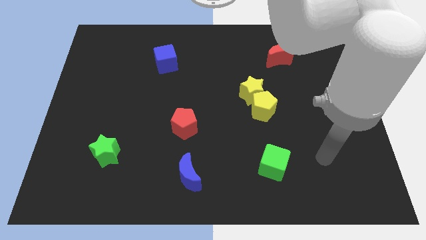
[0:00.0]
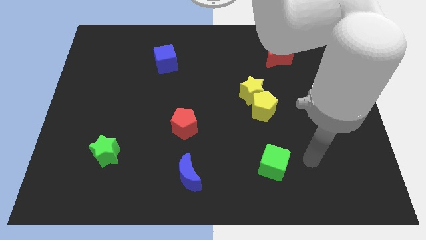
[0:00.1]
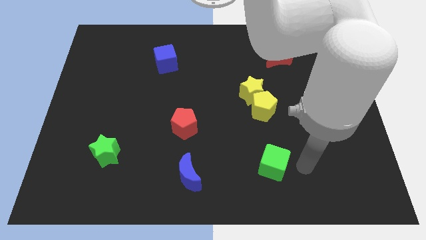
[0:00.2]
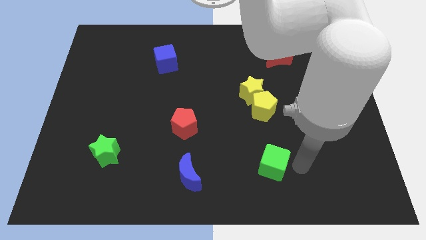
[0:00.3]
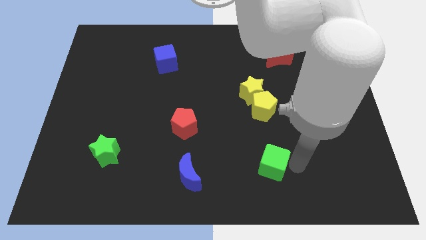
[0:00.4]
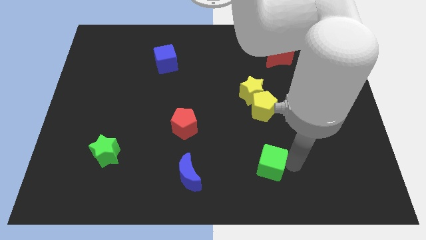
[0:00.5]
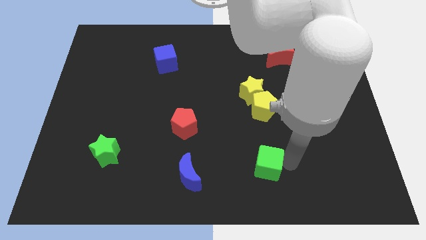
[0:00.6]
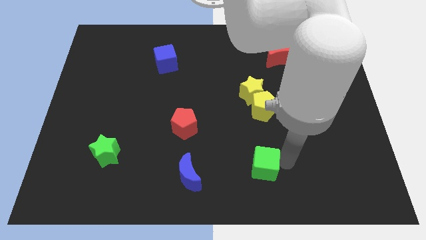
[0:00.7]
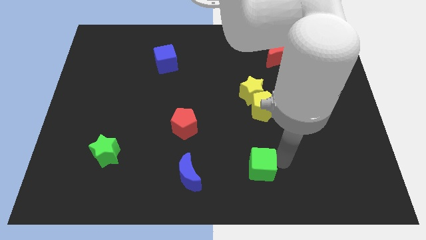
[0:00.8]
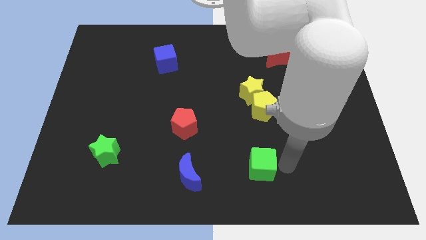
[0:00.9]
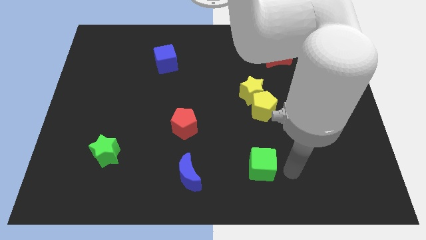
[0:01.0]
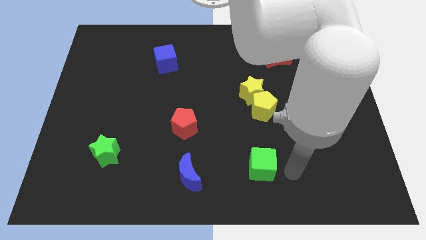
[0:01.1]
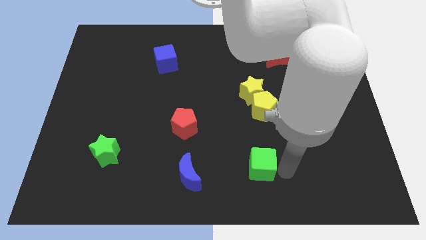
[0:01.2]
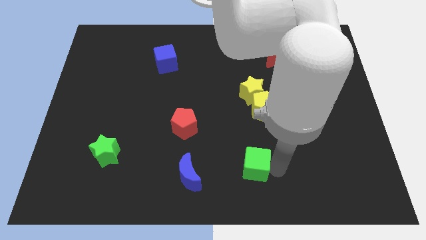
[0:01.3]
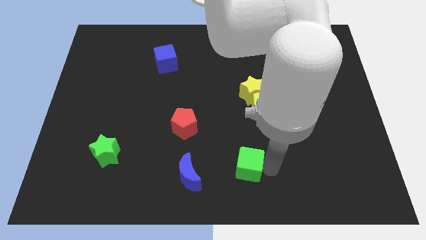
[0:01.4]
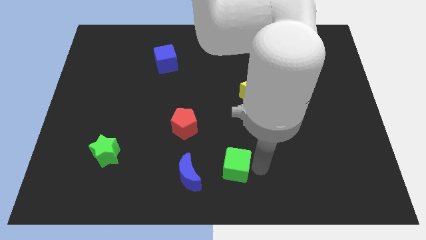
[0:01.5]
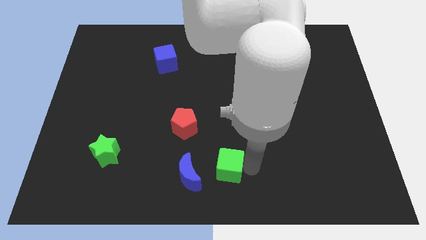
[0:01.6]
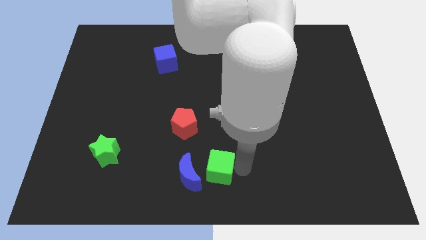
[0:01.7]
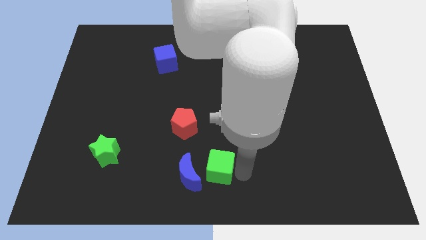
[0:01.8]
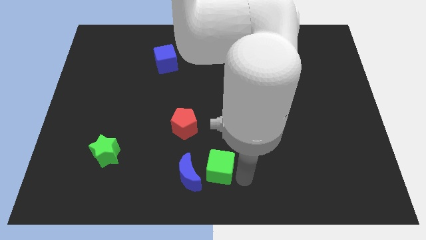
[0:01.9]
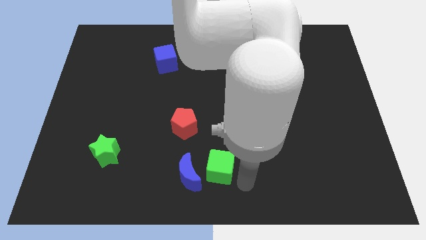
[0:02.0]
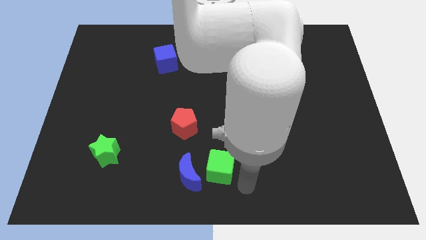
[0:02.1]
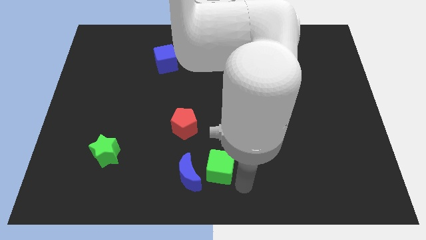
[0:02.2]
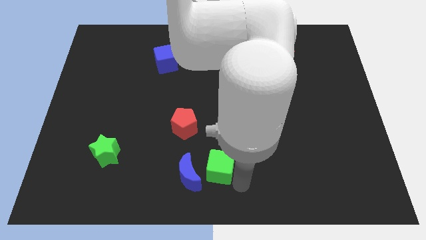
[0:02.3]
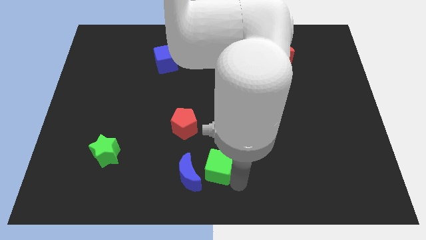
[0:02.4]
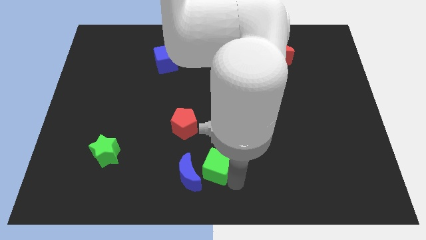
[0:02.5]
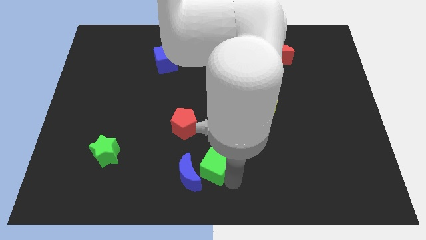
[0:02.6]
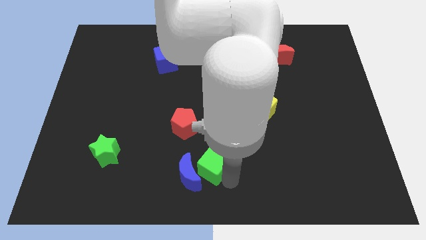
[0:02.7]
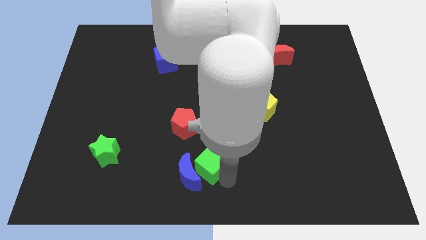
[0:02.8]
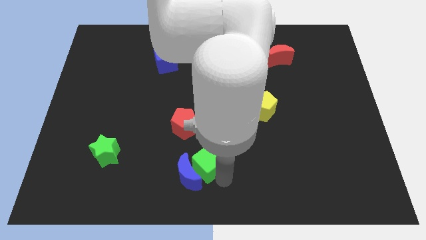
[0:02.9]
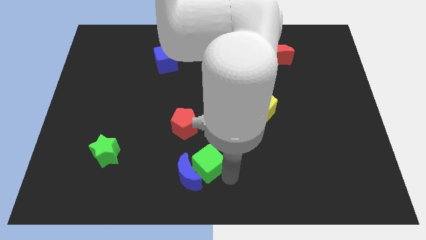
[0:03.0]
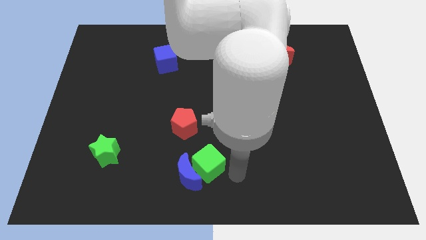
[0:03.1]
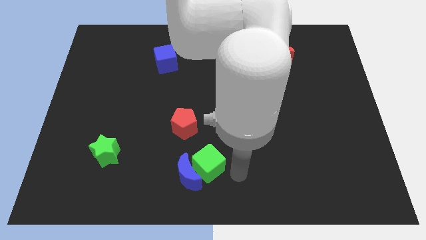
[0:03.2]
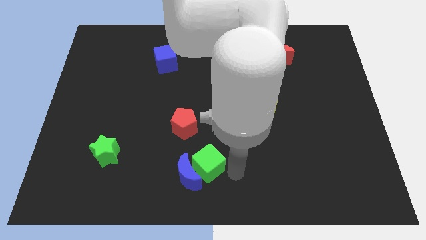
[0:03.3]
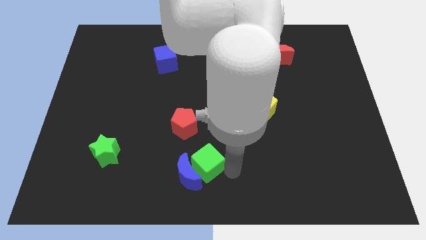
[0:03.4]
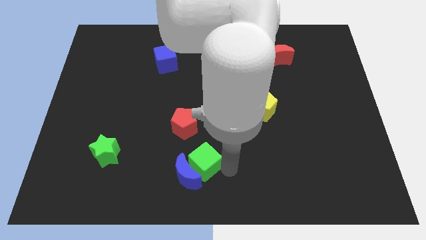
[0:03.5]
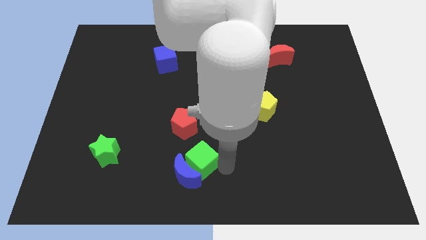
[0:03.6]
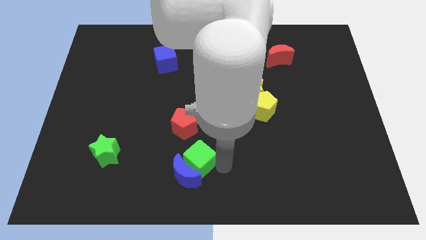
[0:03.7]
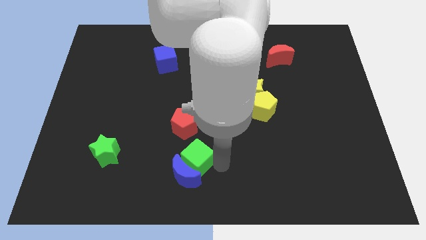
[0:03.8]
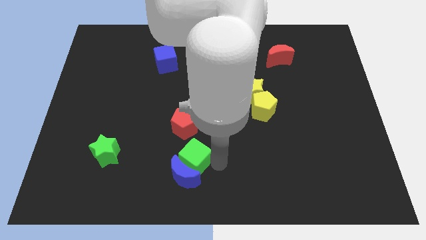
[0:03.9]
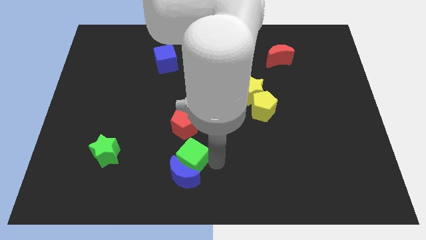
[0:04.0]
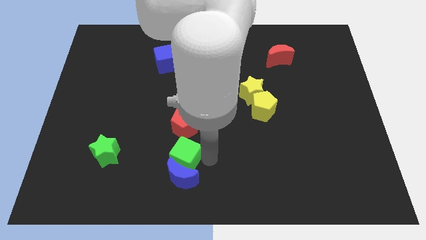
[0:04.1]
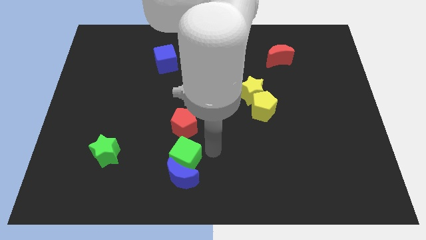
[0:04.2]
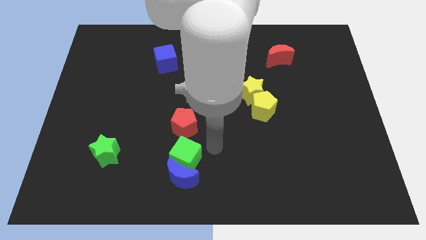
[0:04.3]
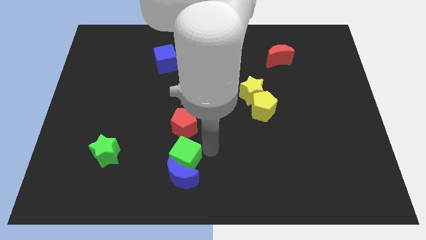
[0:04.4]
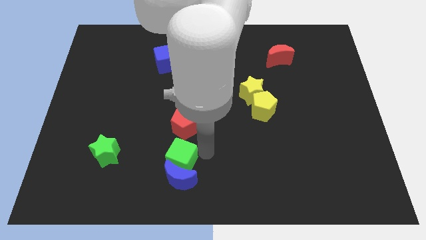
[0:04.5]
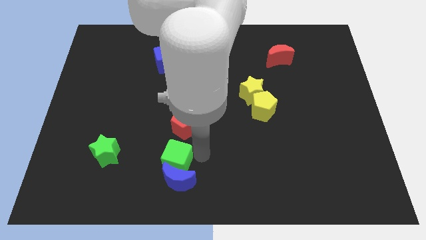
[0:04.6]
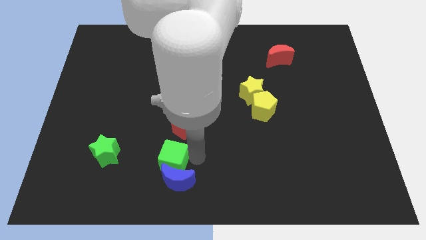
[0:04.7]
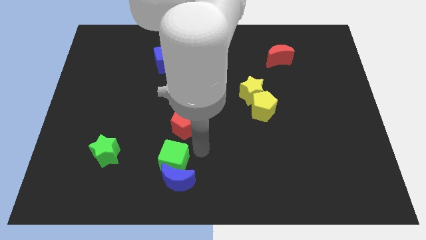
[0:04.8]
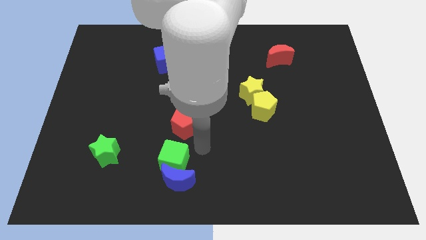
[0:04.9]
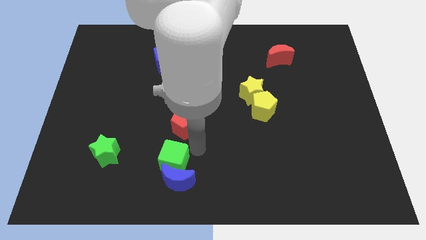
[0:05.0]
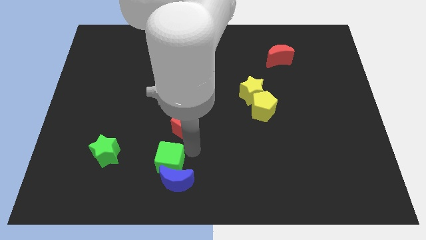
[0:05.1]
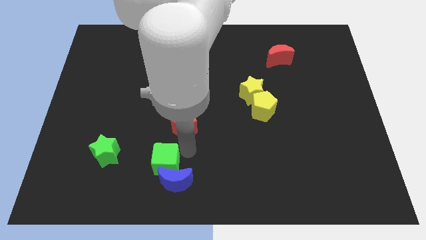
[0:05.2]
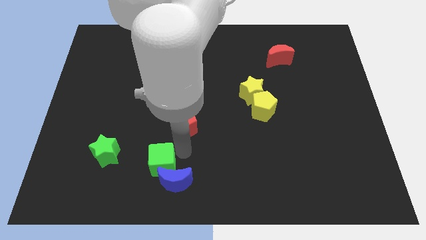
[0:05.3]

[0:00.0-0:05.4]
move the green cube to the left side of the blue moon

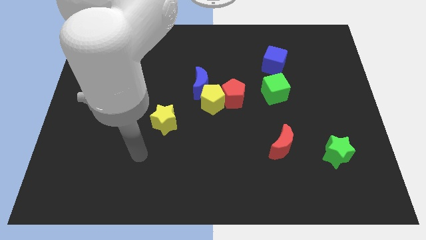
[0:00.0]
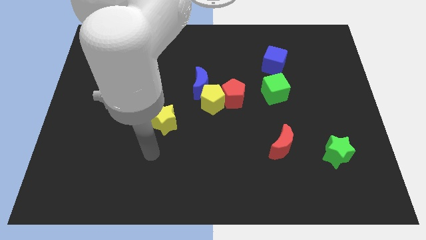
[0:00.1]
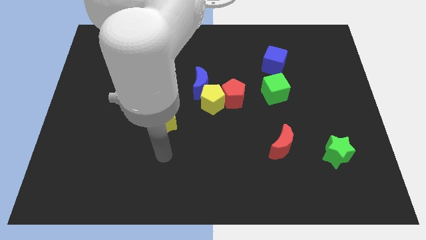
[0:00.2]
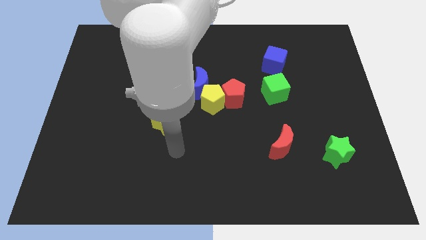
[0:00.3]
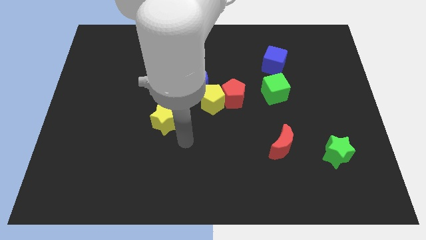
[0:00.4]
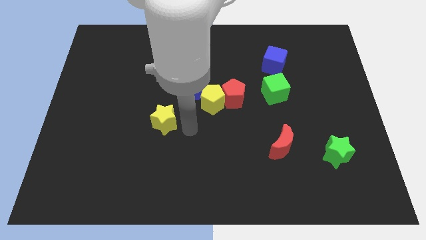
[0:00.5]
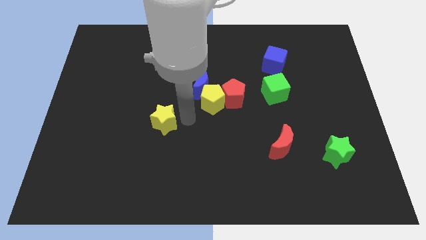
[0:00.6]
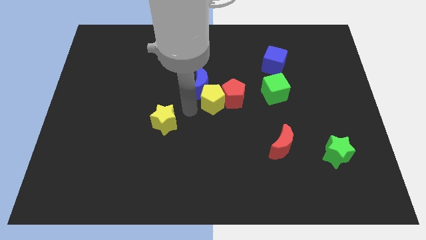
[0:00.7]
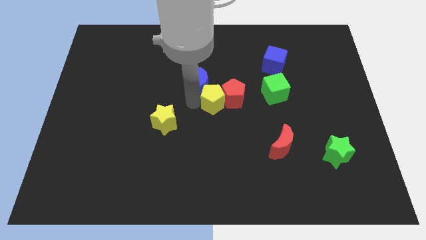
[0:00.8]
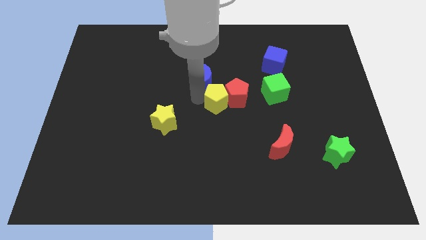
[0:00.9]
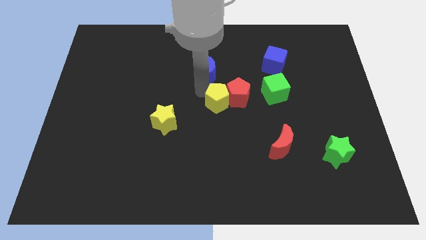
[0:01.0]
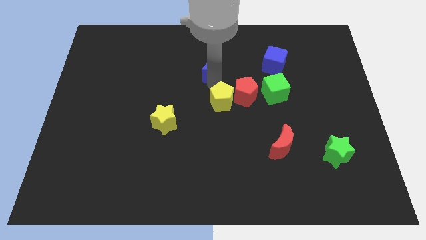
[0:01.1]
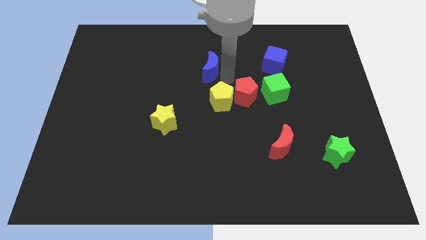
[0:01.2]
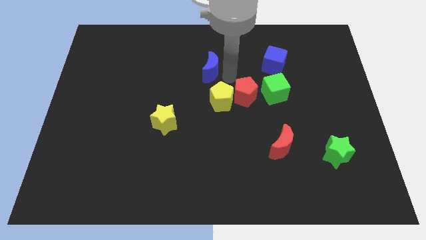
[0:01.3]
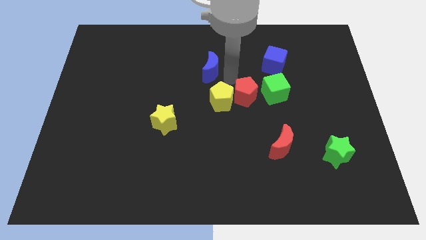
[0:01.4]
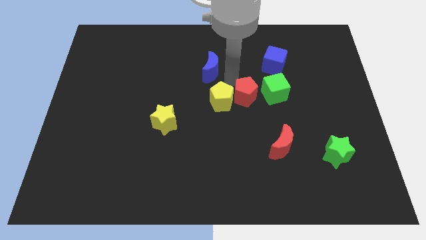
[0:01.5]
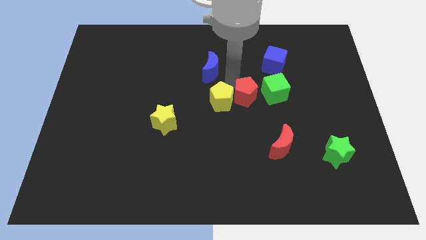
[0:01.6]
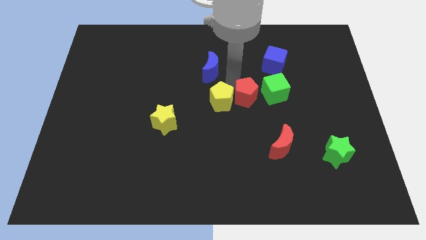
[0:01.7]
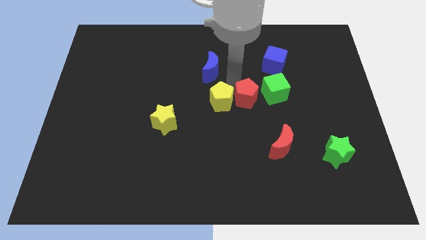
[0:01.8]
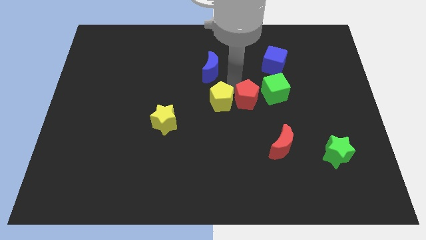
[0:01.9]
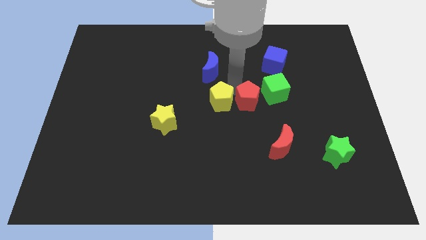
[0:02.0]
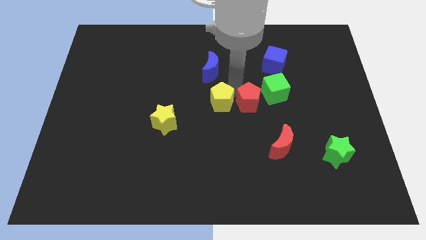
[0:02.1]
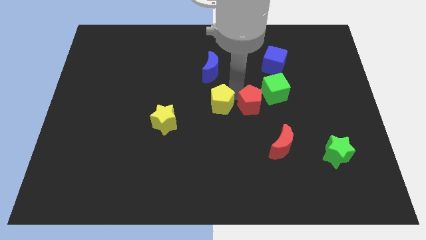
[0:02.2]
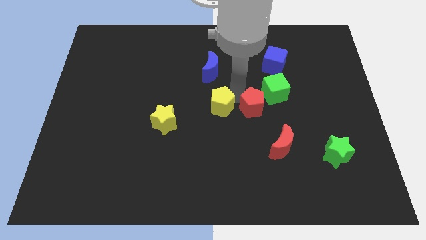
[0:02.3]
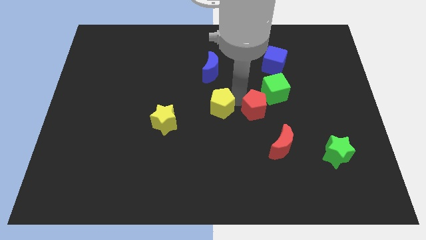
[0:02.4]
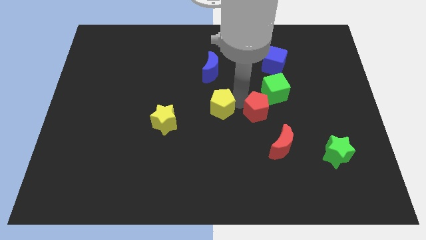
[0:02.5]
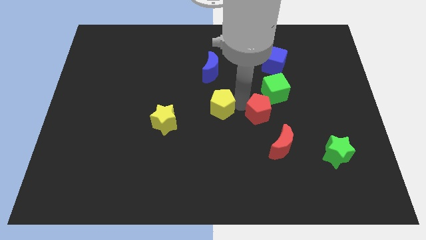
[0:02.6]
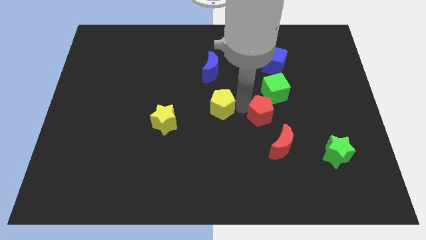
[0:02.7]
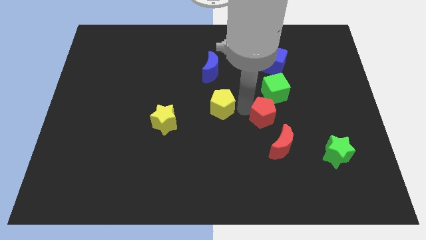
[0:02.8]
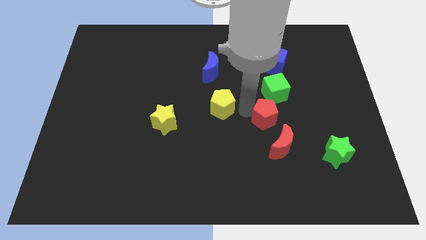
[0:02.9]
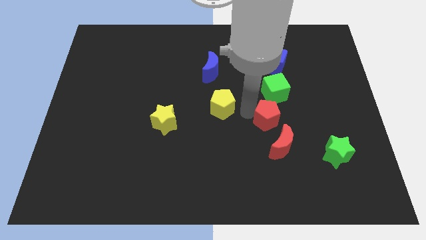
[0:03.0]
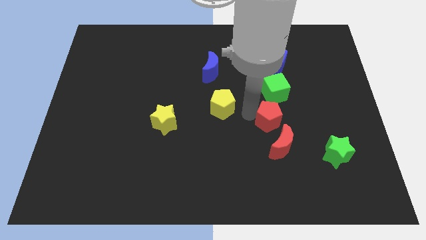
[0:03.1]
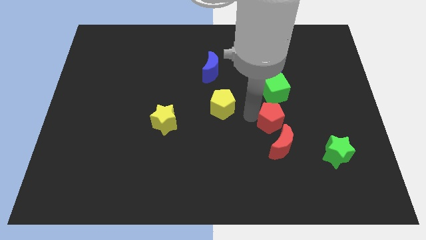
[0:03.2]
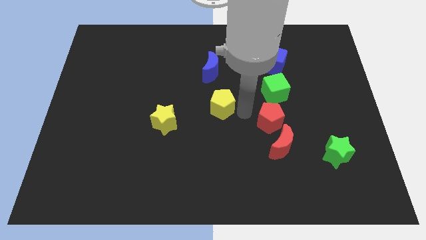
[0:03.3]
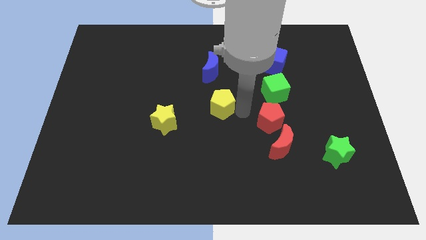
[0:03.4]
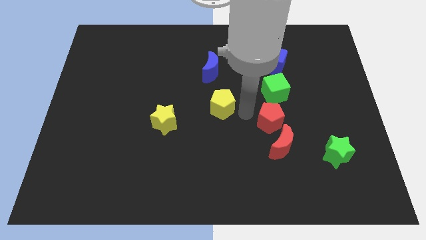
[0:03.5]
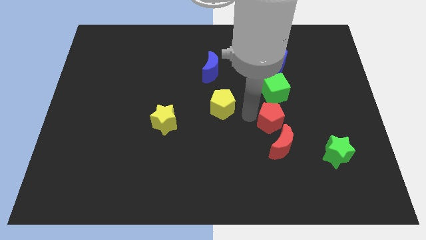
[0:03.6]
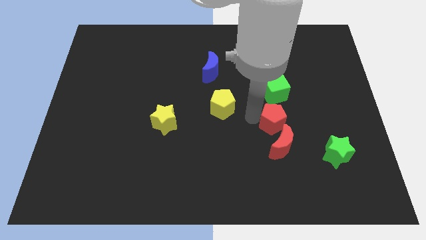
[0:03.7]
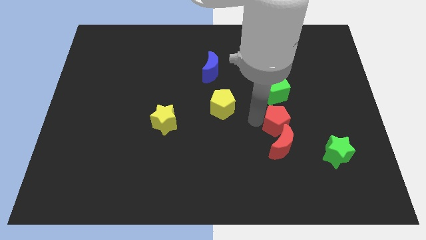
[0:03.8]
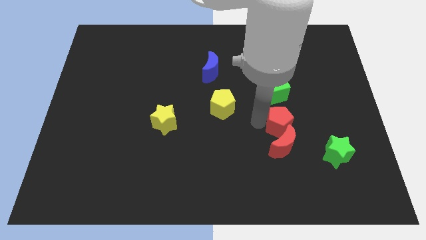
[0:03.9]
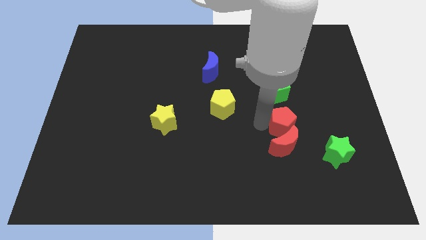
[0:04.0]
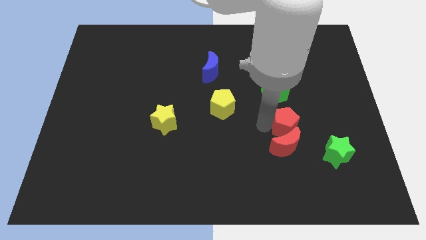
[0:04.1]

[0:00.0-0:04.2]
move the red pentagon to the top left of the green star
